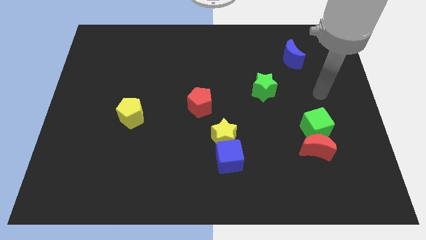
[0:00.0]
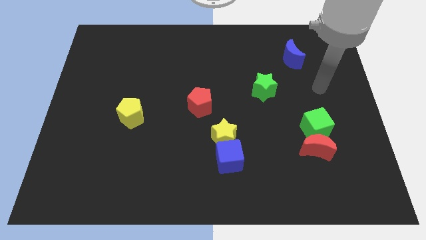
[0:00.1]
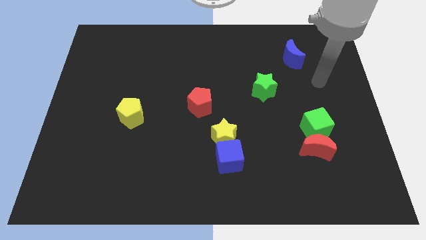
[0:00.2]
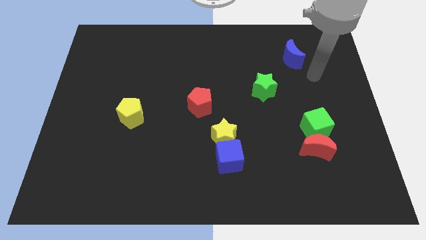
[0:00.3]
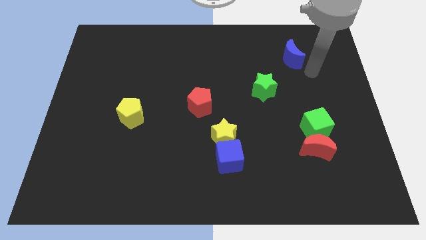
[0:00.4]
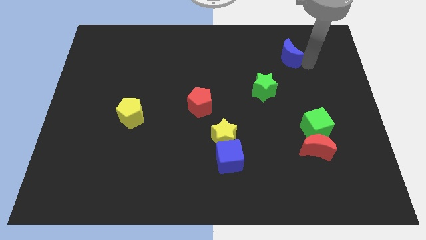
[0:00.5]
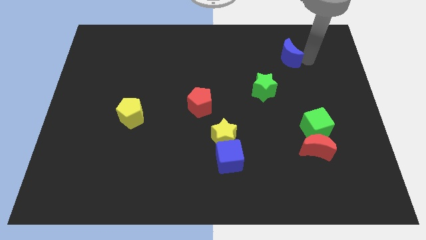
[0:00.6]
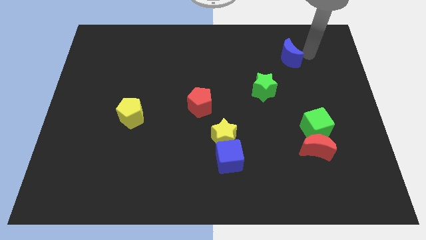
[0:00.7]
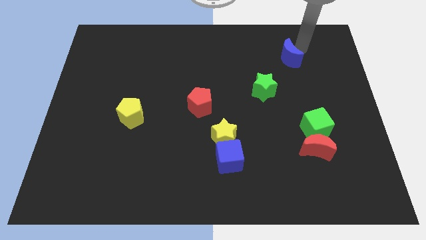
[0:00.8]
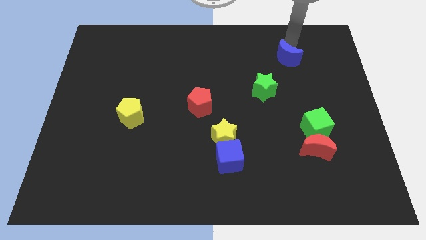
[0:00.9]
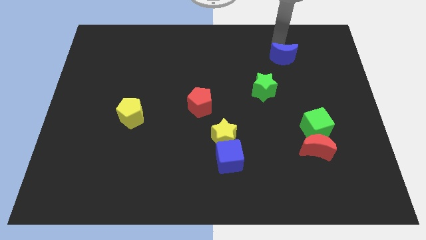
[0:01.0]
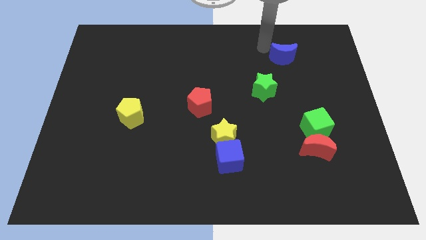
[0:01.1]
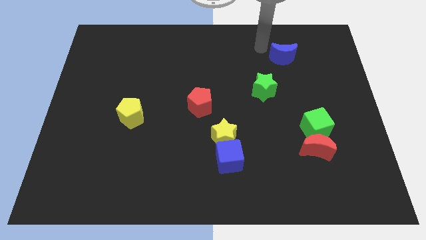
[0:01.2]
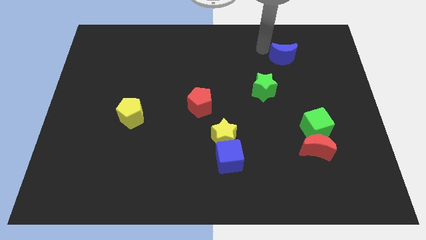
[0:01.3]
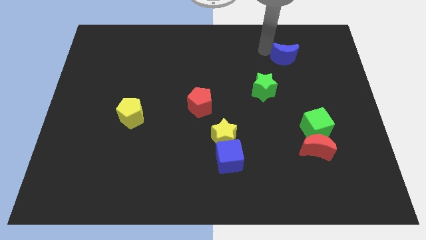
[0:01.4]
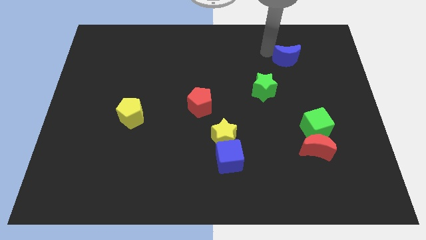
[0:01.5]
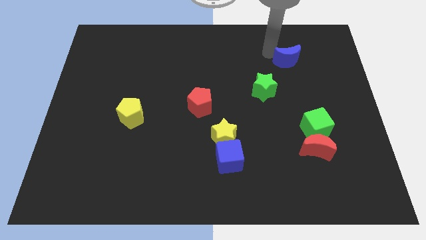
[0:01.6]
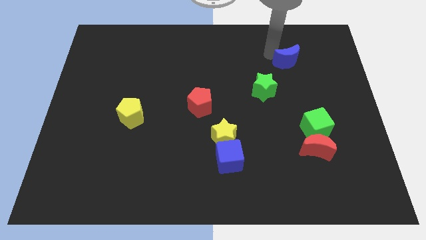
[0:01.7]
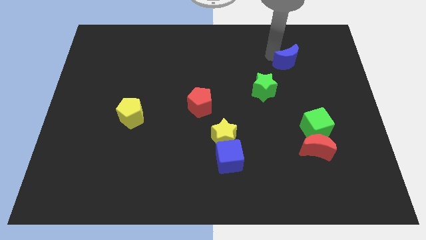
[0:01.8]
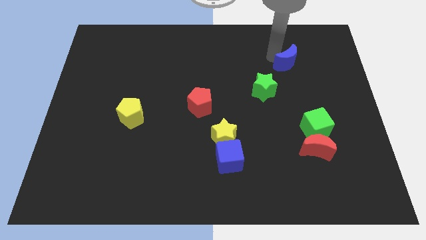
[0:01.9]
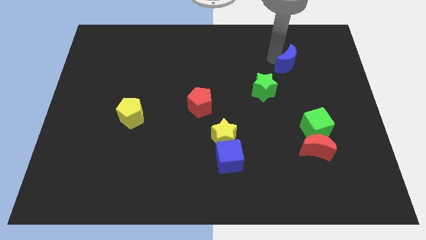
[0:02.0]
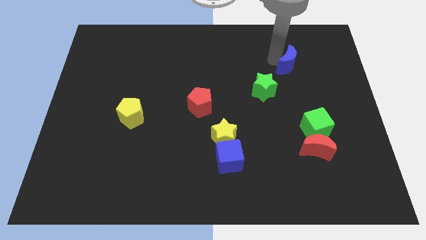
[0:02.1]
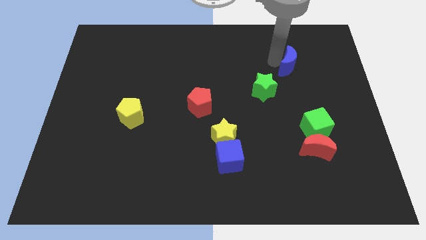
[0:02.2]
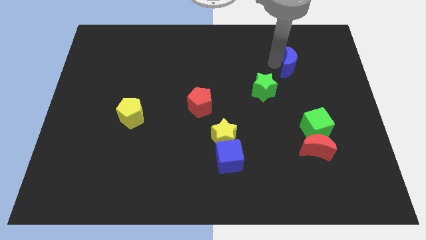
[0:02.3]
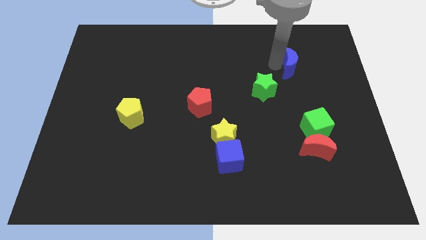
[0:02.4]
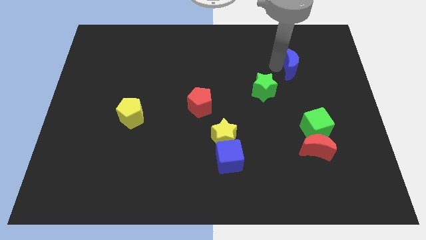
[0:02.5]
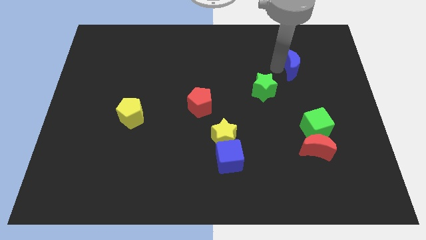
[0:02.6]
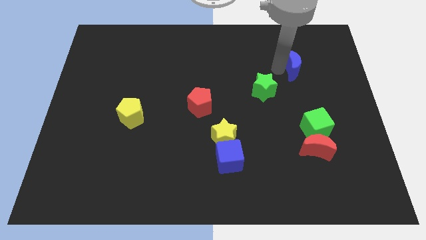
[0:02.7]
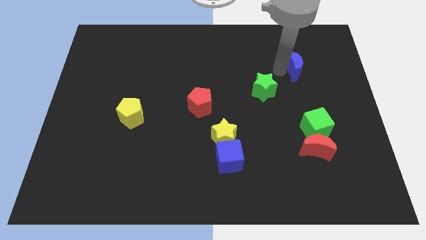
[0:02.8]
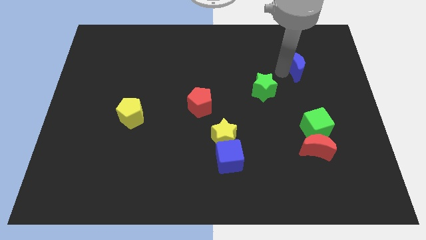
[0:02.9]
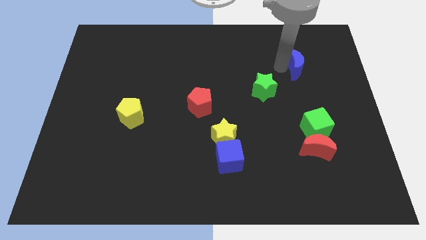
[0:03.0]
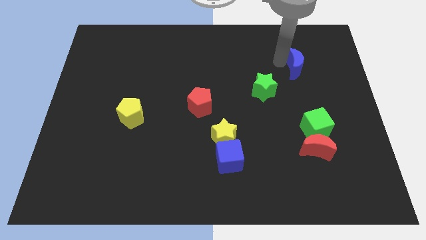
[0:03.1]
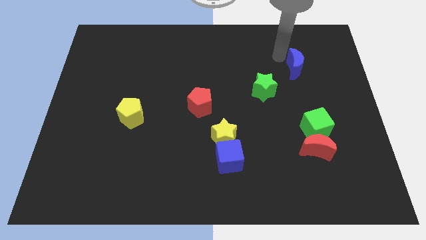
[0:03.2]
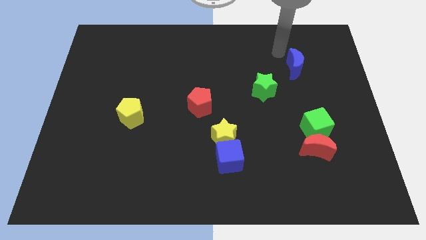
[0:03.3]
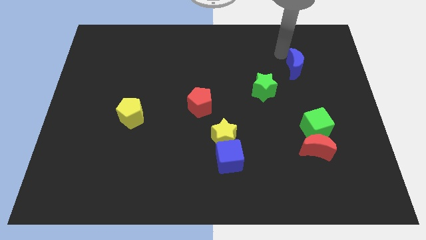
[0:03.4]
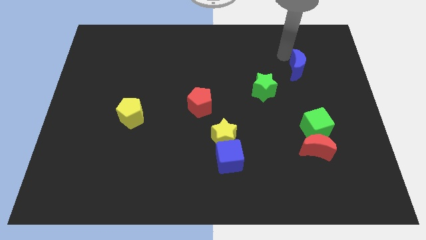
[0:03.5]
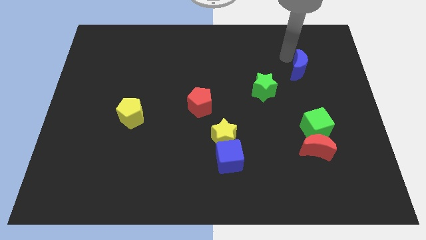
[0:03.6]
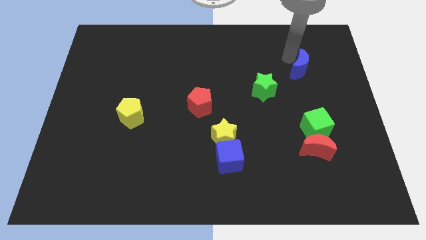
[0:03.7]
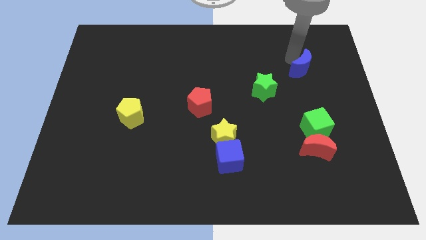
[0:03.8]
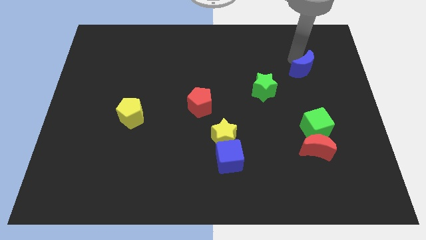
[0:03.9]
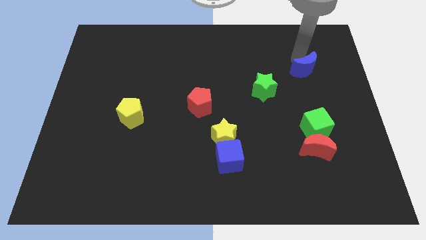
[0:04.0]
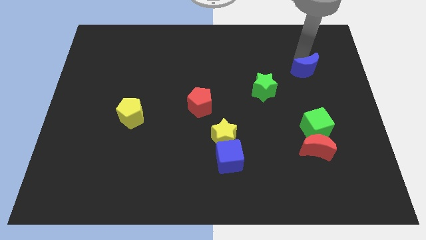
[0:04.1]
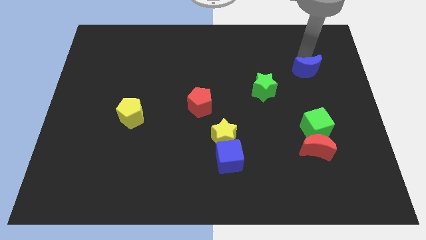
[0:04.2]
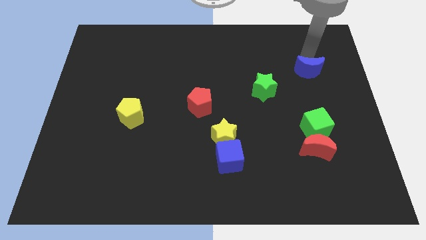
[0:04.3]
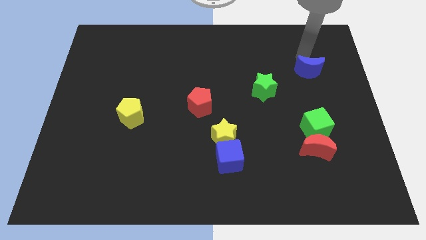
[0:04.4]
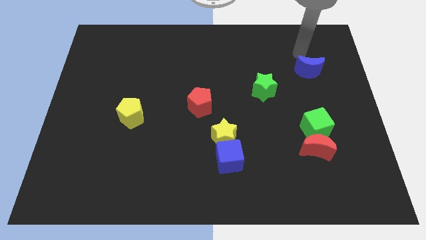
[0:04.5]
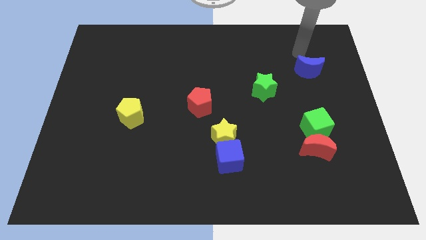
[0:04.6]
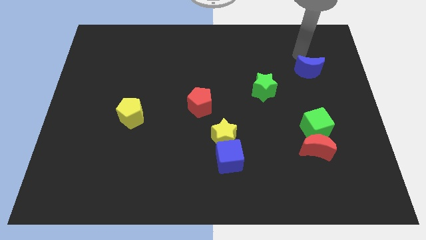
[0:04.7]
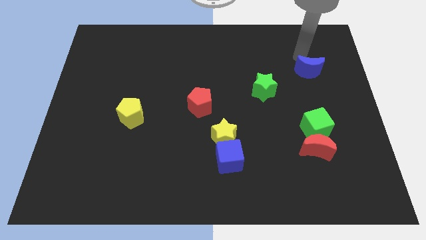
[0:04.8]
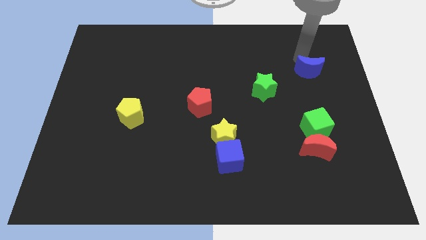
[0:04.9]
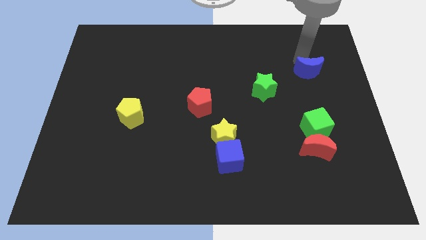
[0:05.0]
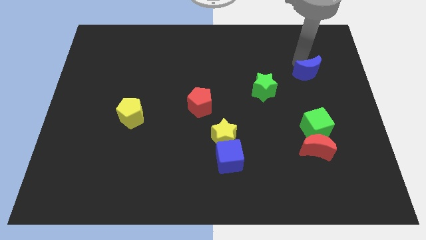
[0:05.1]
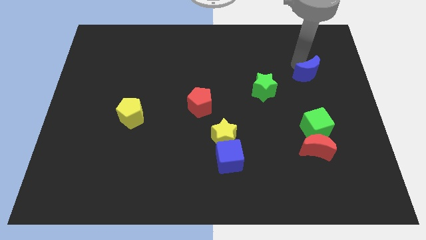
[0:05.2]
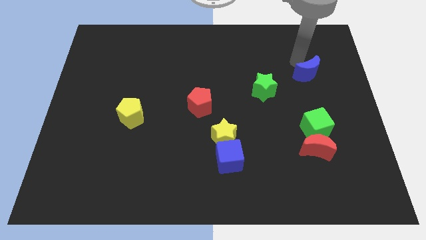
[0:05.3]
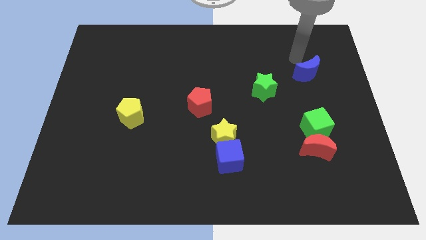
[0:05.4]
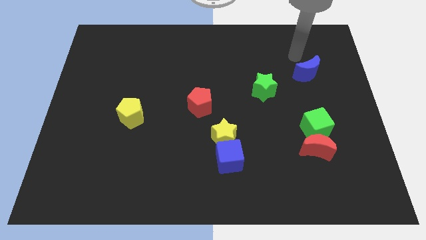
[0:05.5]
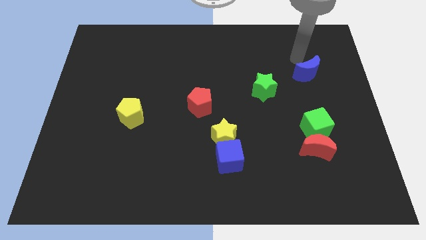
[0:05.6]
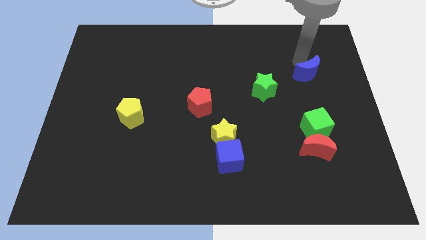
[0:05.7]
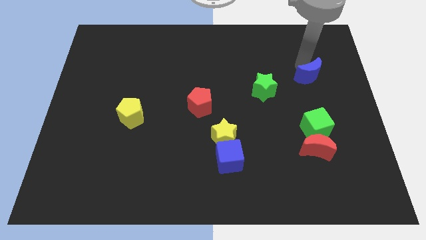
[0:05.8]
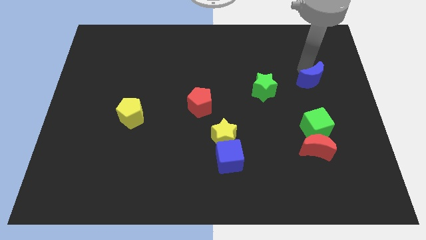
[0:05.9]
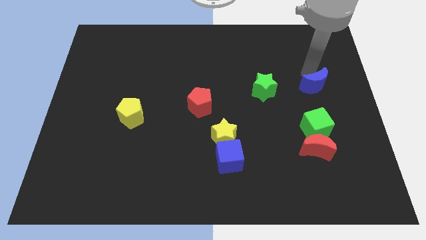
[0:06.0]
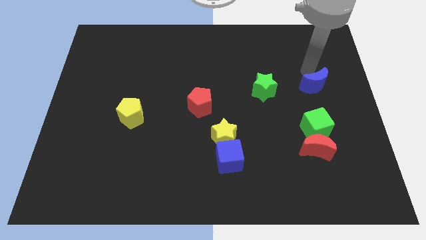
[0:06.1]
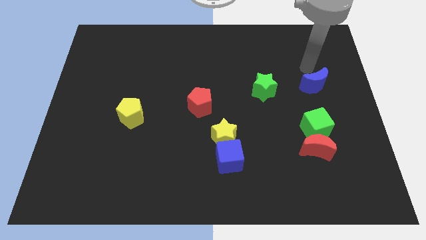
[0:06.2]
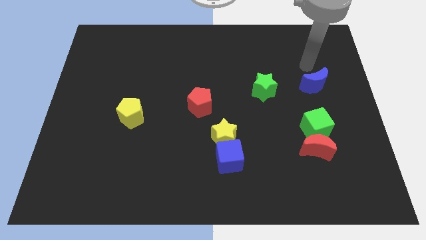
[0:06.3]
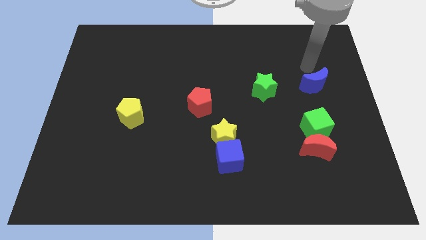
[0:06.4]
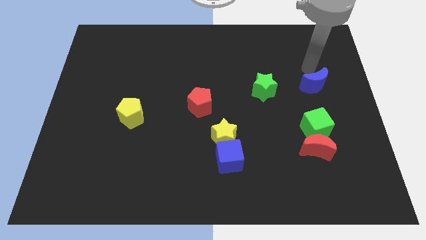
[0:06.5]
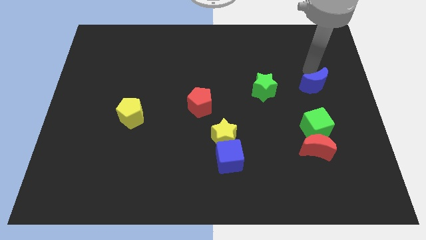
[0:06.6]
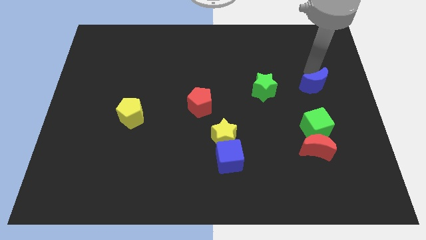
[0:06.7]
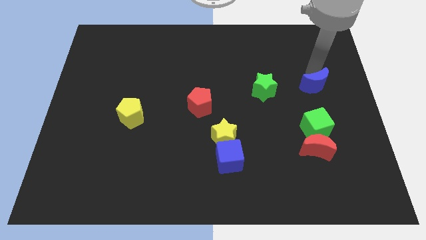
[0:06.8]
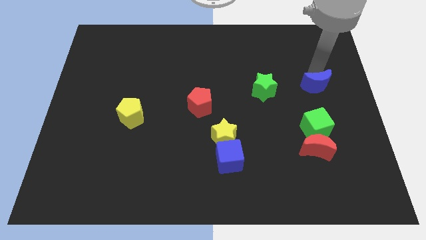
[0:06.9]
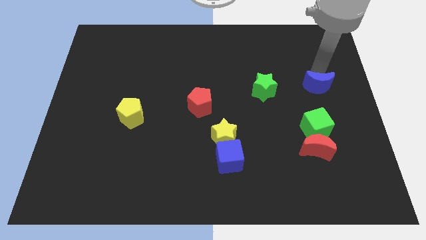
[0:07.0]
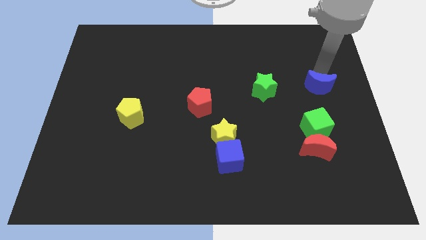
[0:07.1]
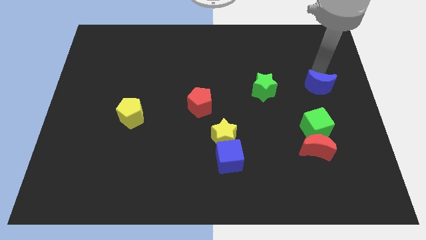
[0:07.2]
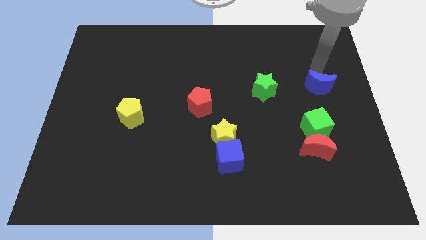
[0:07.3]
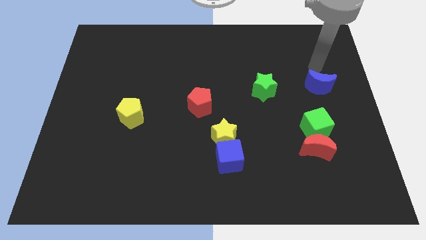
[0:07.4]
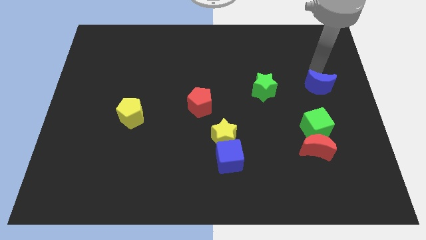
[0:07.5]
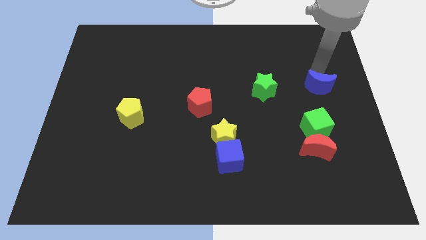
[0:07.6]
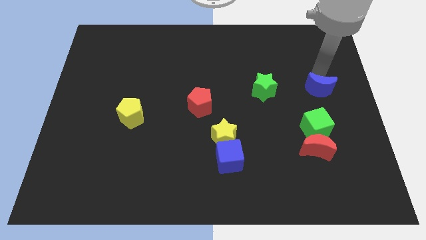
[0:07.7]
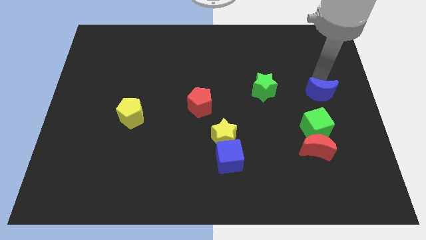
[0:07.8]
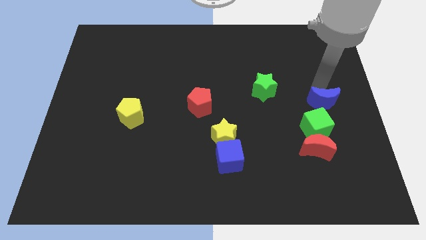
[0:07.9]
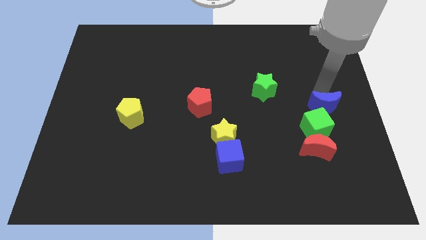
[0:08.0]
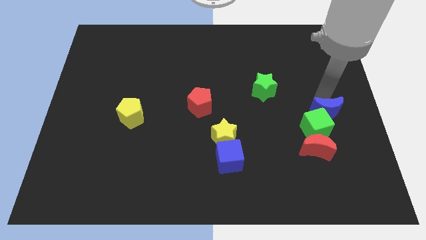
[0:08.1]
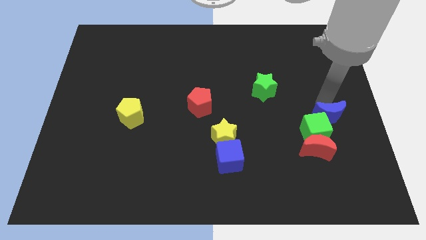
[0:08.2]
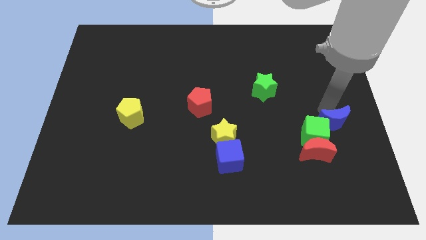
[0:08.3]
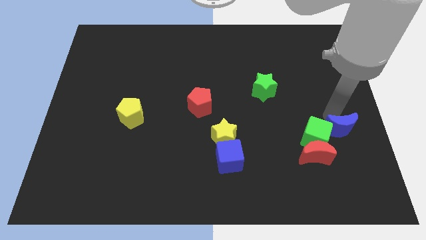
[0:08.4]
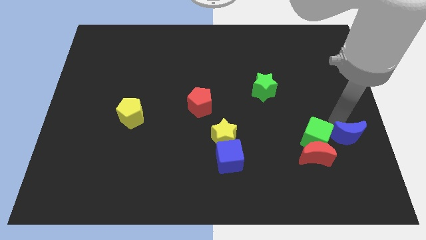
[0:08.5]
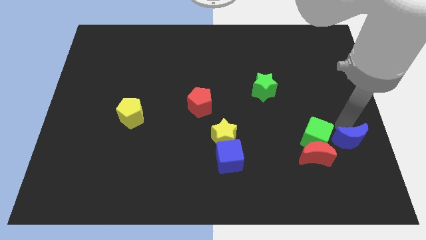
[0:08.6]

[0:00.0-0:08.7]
slide the blue moon to the bottom right side of the green cube
